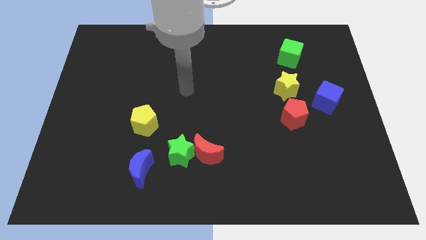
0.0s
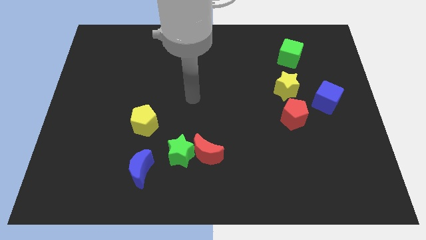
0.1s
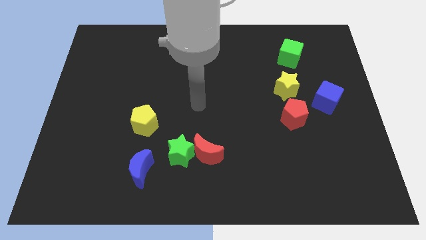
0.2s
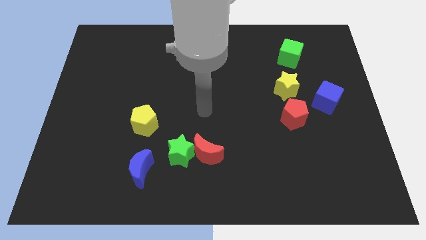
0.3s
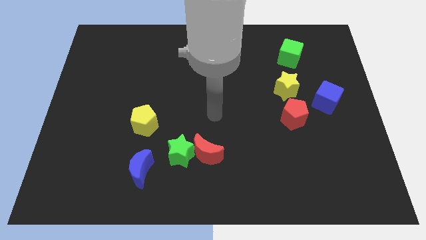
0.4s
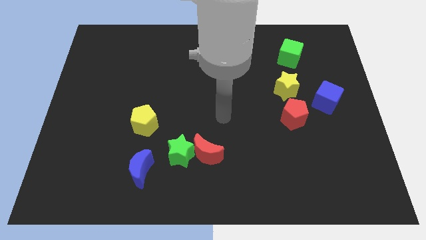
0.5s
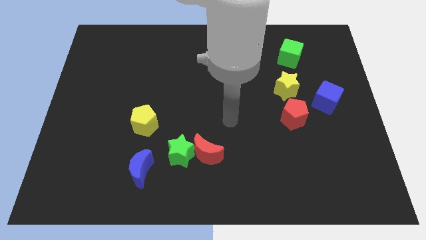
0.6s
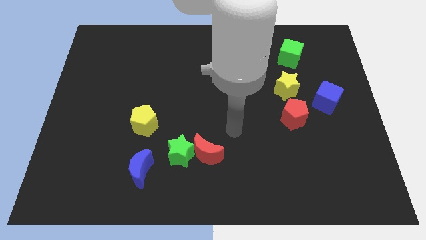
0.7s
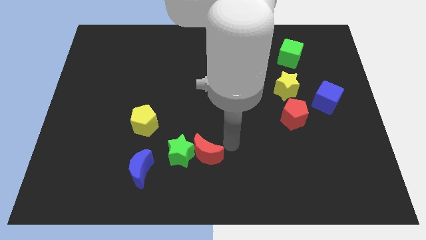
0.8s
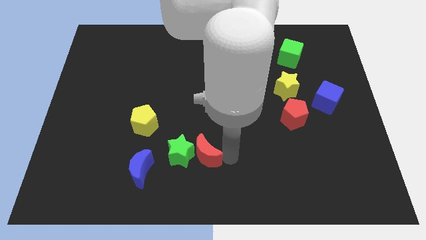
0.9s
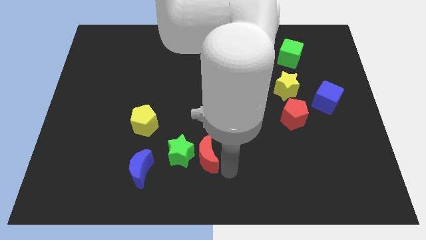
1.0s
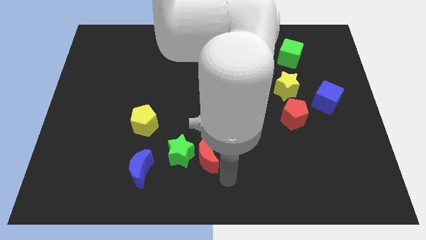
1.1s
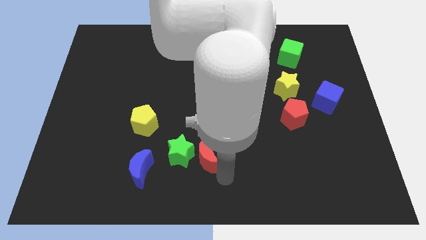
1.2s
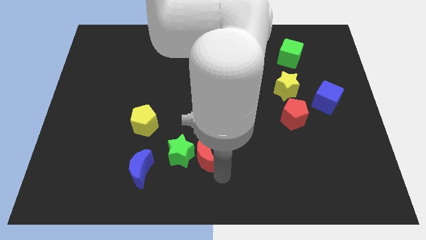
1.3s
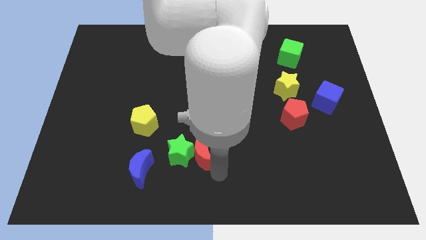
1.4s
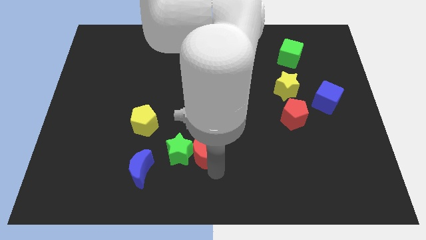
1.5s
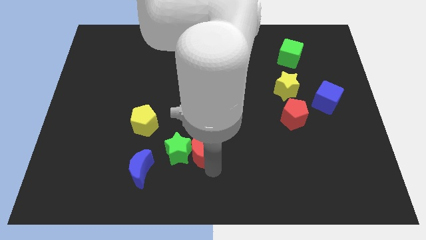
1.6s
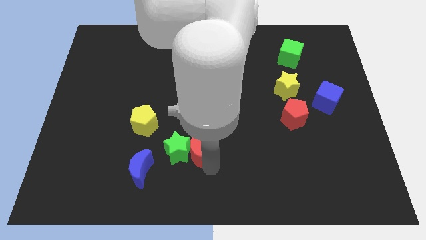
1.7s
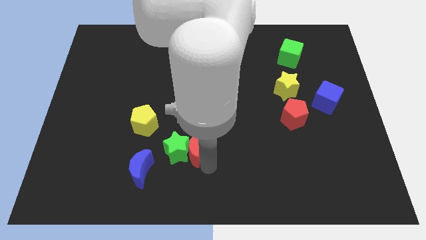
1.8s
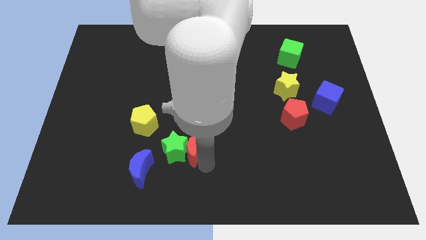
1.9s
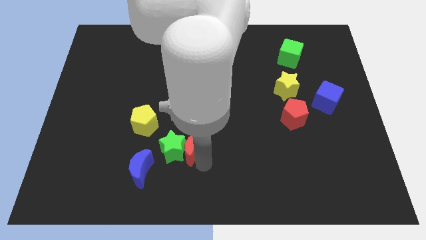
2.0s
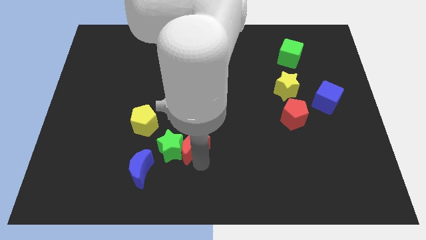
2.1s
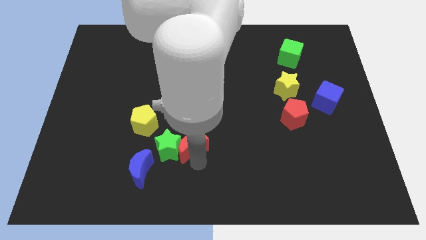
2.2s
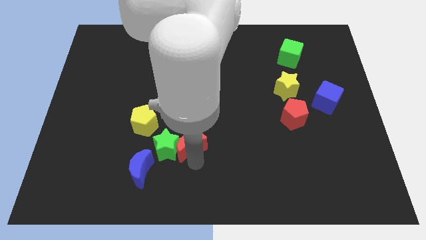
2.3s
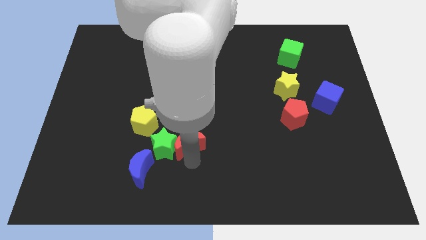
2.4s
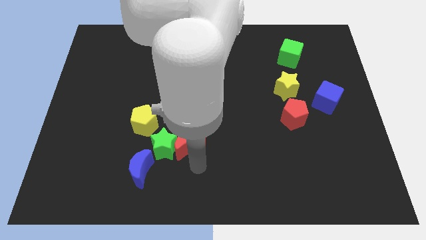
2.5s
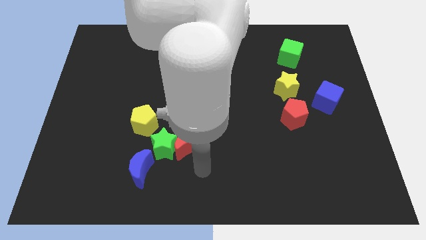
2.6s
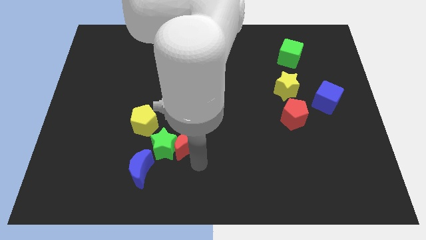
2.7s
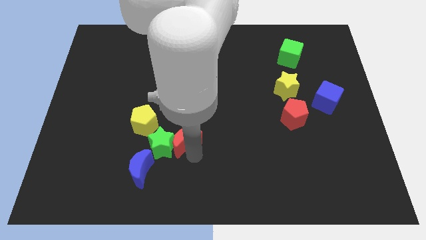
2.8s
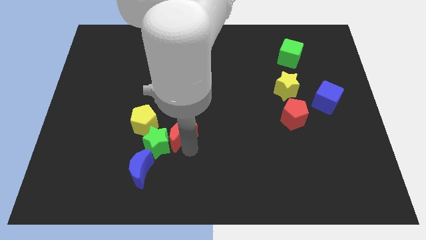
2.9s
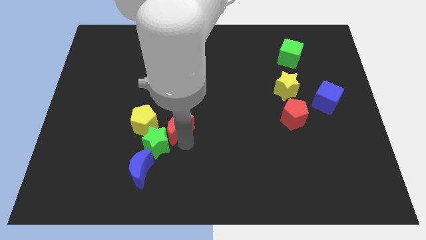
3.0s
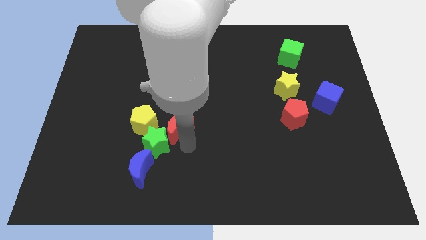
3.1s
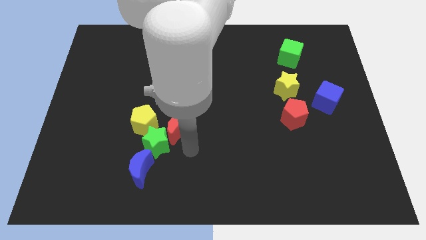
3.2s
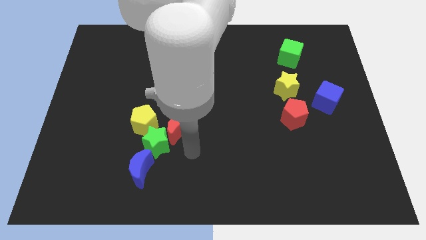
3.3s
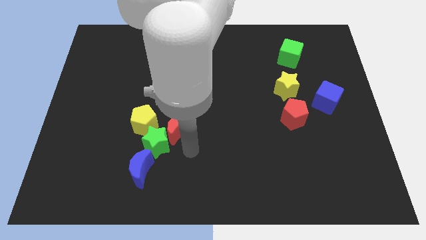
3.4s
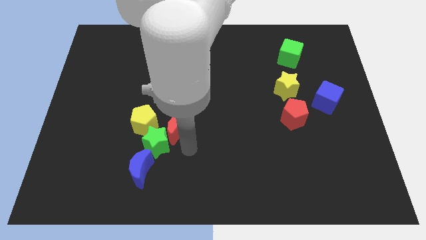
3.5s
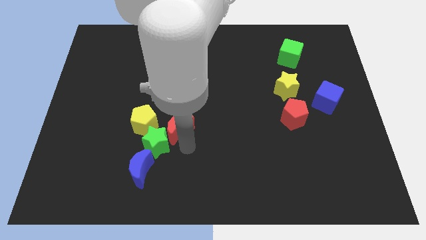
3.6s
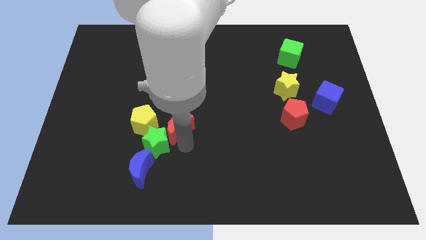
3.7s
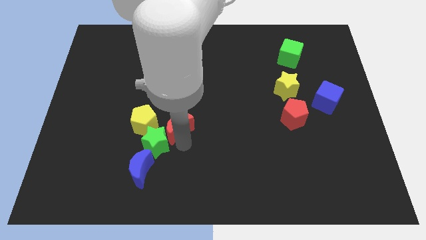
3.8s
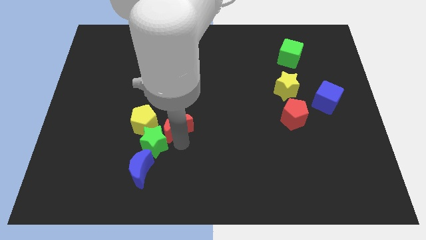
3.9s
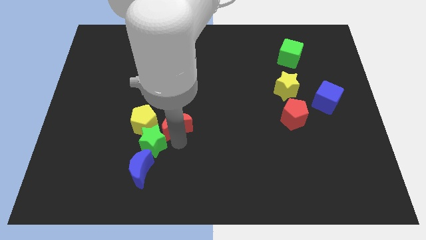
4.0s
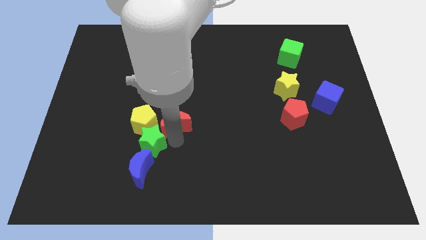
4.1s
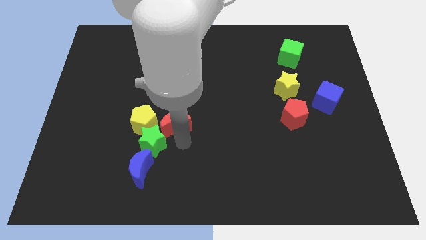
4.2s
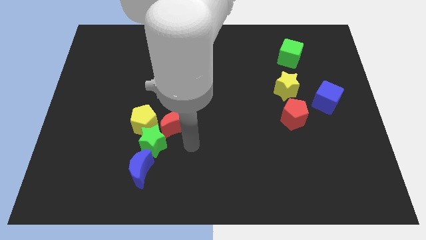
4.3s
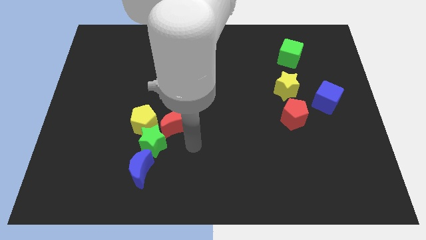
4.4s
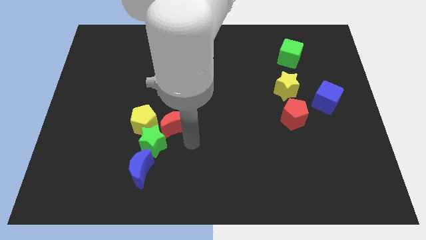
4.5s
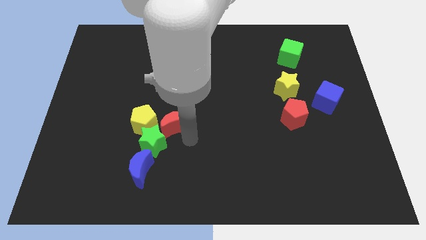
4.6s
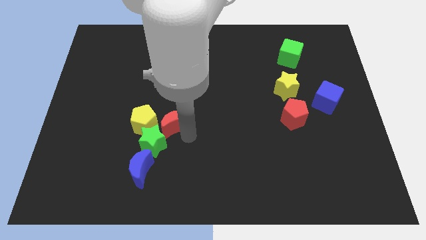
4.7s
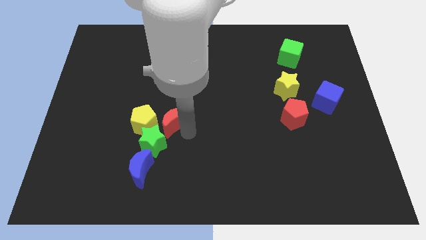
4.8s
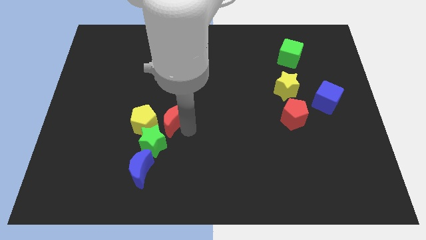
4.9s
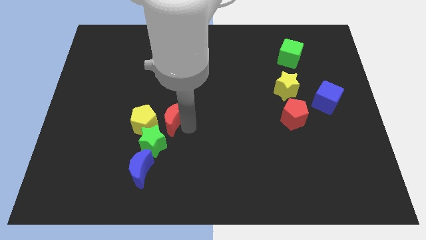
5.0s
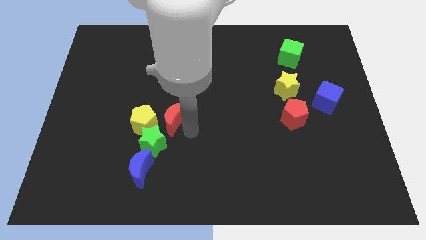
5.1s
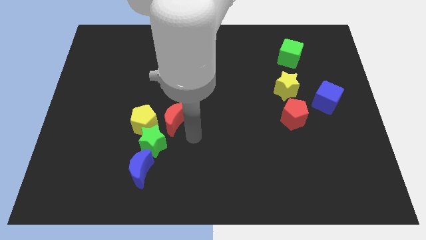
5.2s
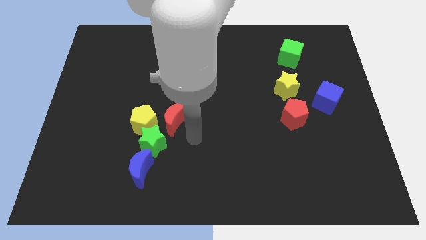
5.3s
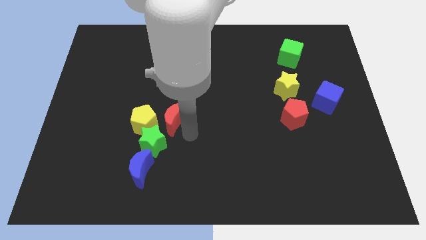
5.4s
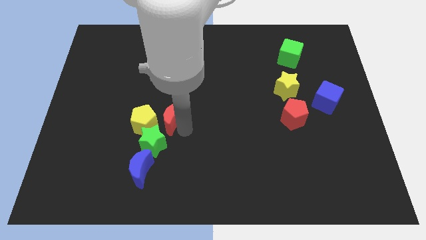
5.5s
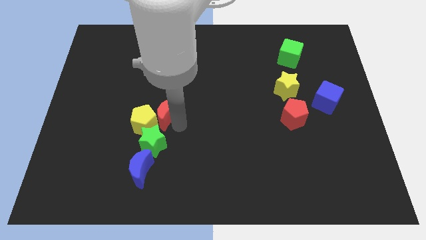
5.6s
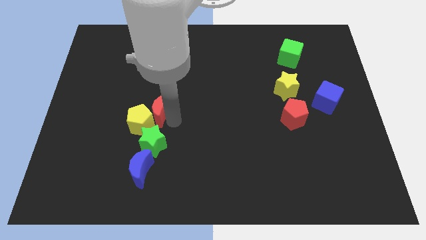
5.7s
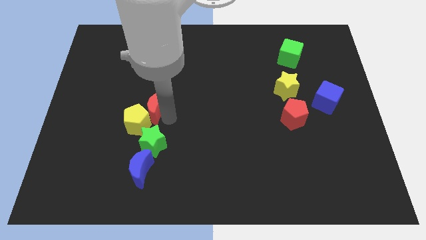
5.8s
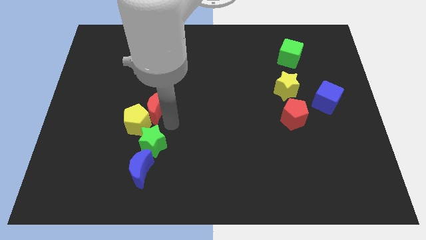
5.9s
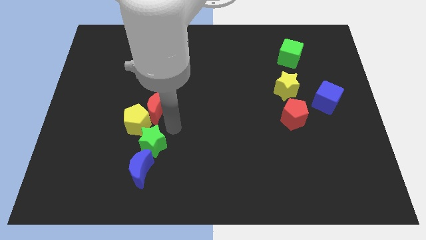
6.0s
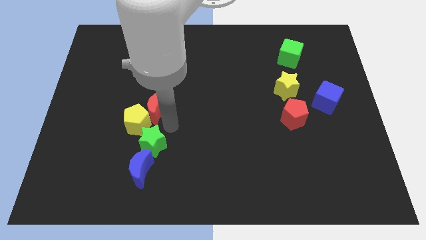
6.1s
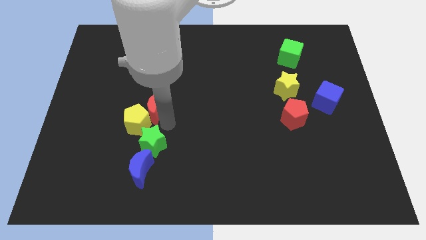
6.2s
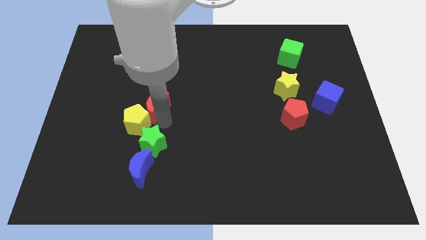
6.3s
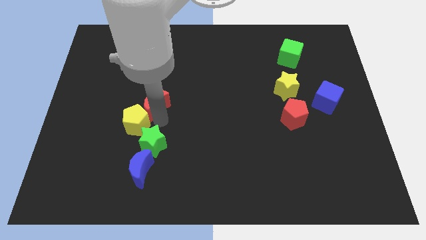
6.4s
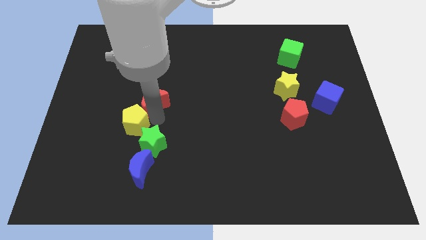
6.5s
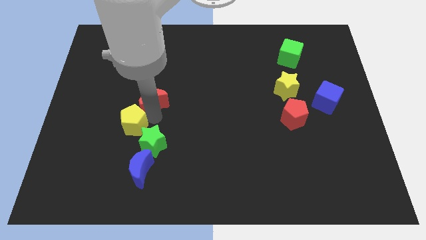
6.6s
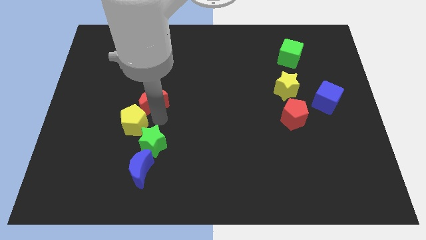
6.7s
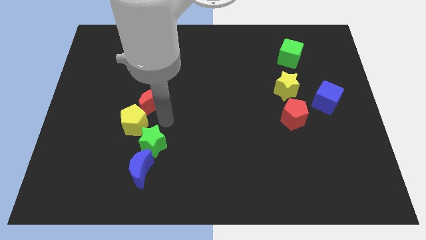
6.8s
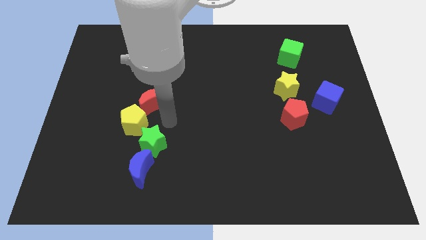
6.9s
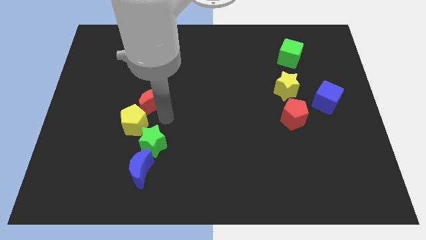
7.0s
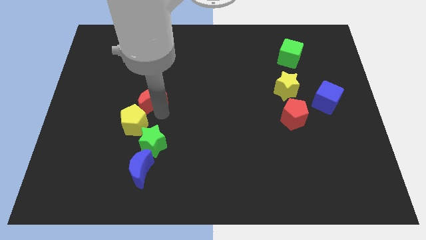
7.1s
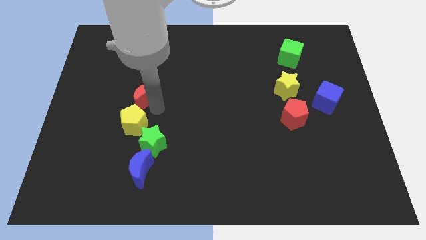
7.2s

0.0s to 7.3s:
push the red moon up and to the left

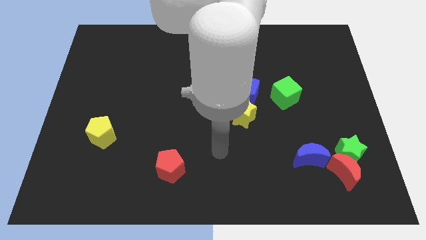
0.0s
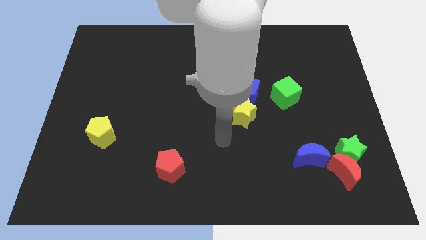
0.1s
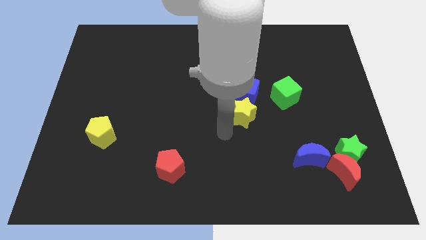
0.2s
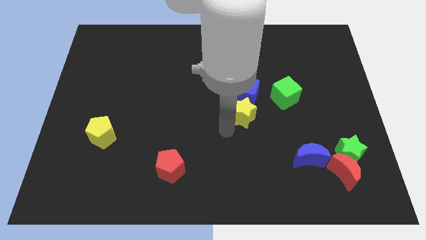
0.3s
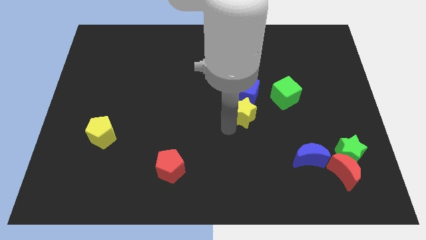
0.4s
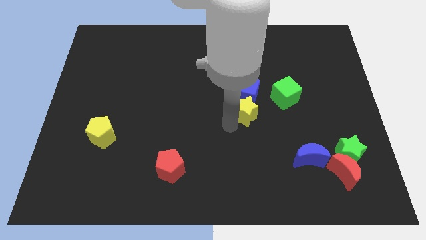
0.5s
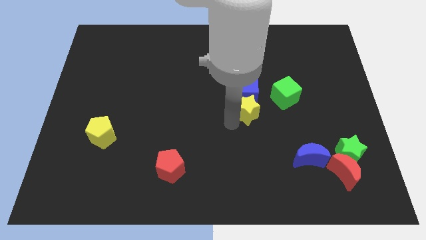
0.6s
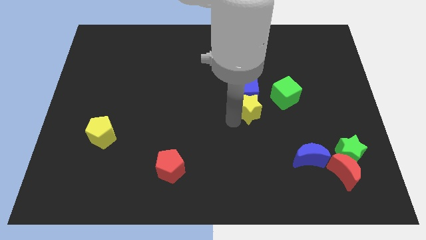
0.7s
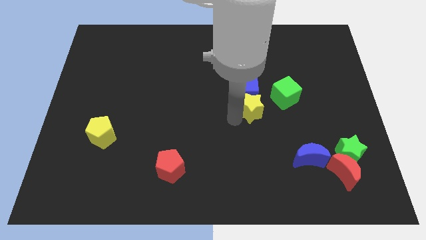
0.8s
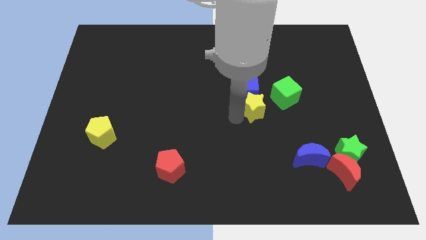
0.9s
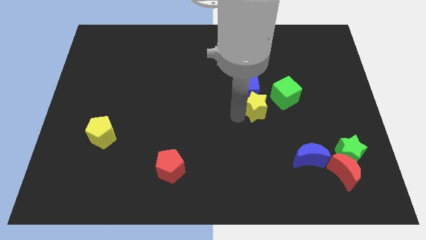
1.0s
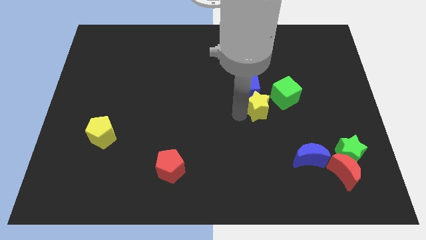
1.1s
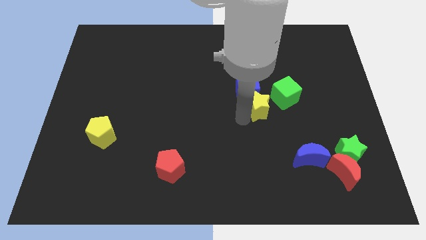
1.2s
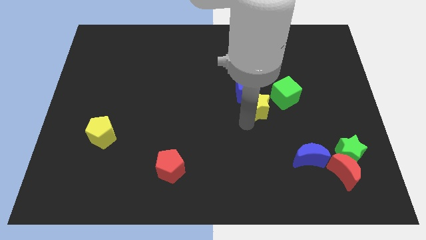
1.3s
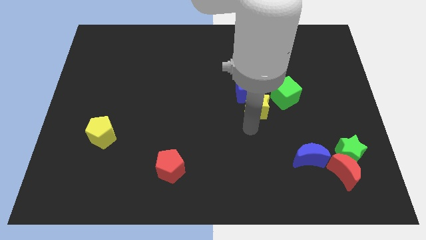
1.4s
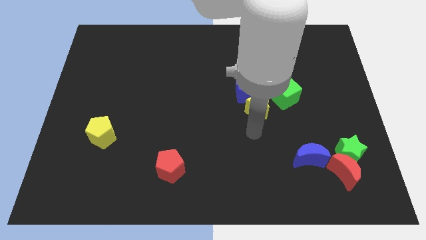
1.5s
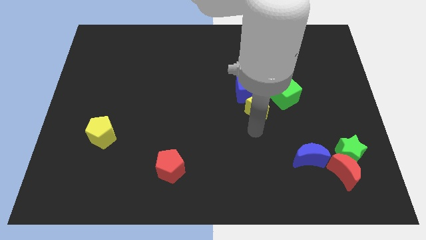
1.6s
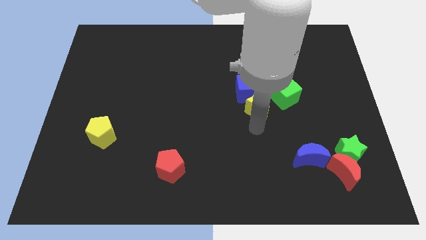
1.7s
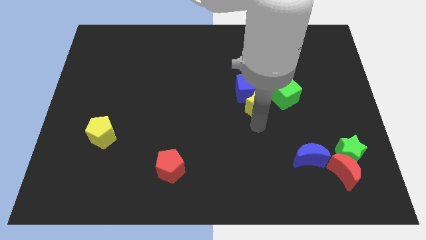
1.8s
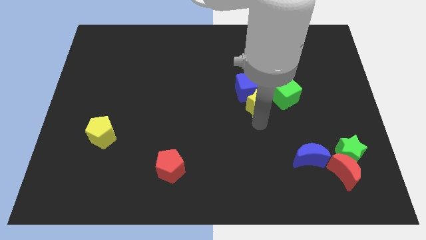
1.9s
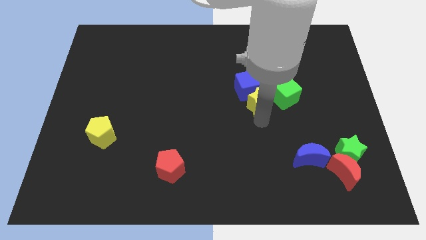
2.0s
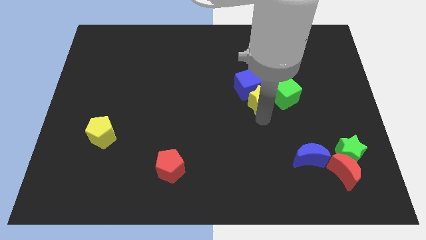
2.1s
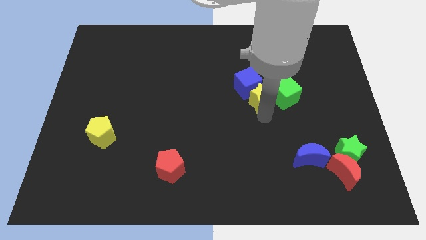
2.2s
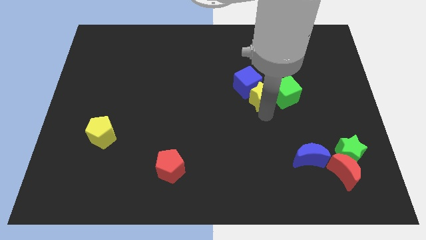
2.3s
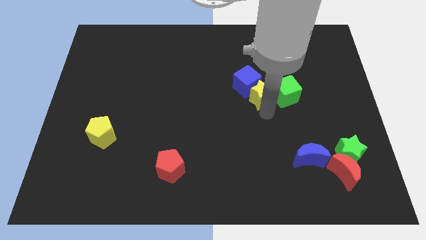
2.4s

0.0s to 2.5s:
slightly move the yellow star up and then to the right
